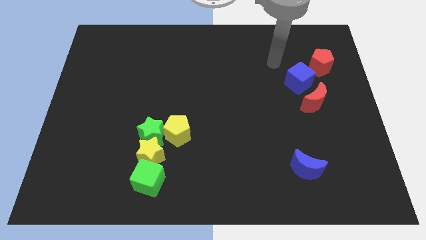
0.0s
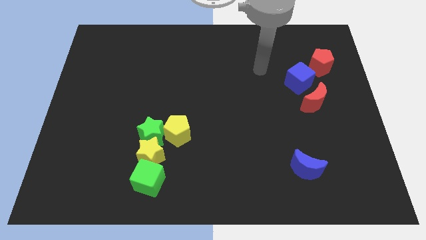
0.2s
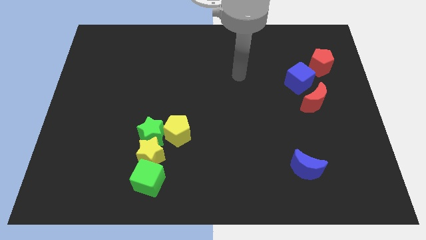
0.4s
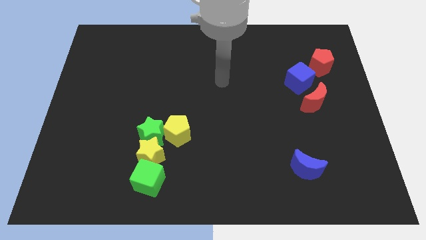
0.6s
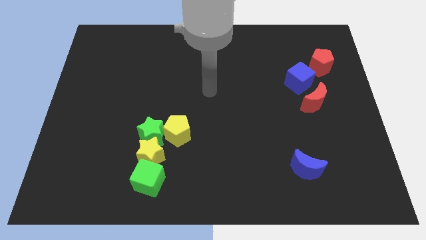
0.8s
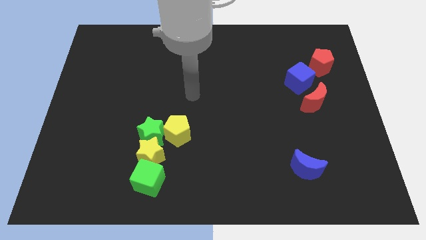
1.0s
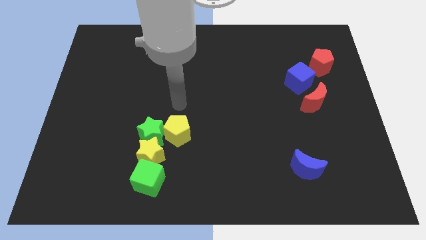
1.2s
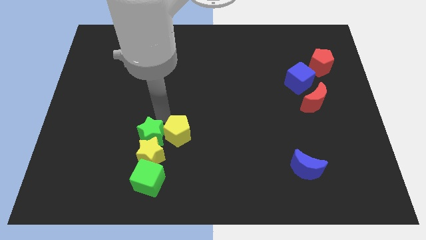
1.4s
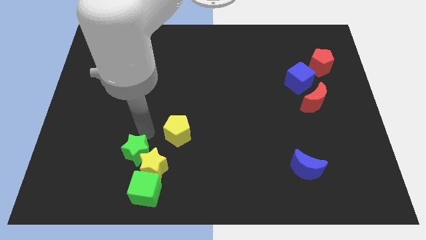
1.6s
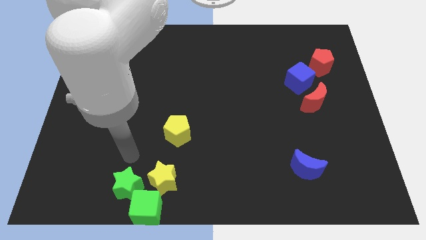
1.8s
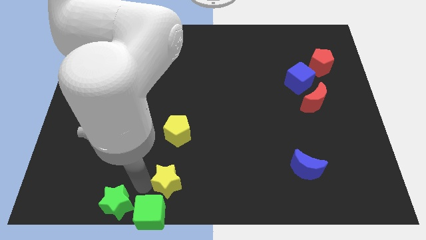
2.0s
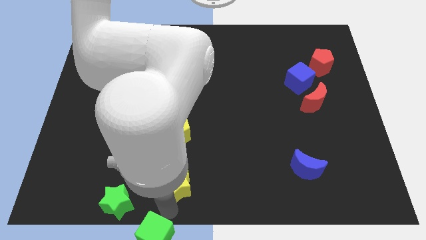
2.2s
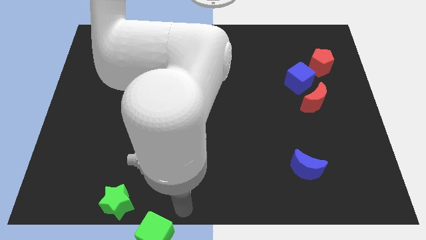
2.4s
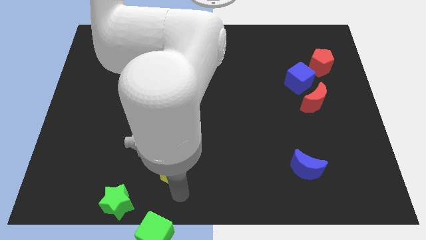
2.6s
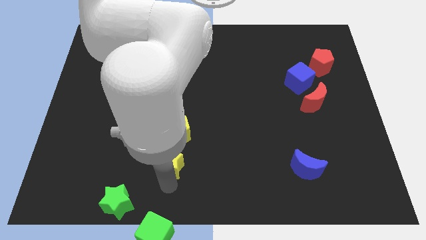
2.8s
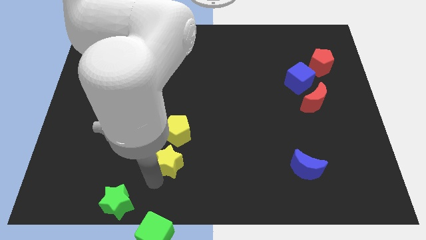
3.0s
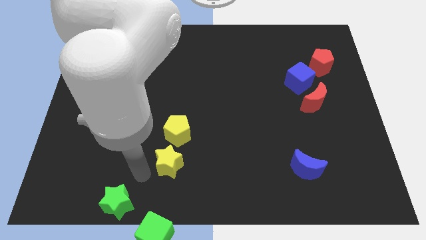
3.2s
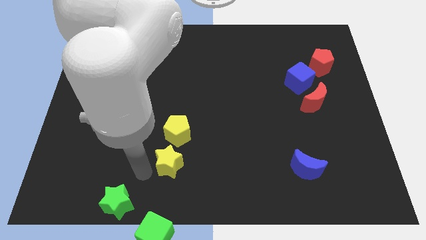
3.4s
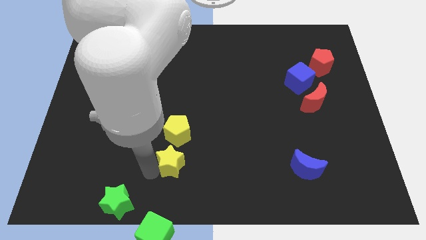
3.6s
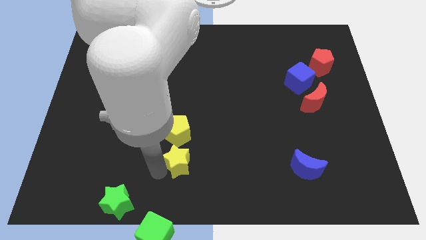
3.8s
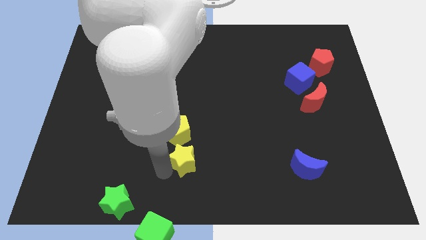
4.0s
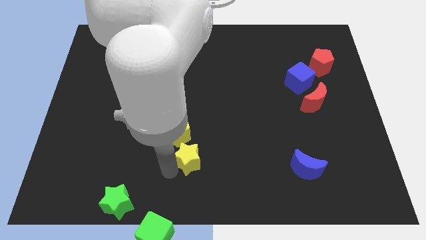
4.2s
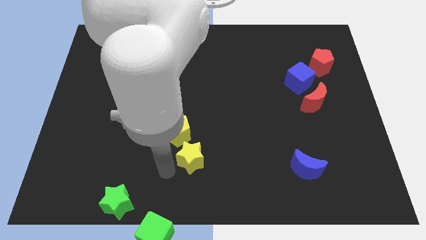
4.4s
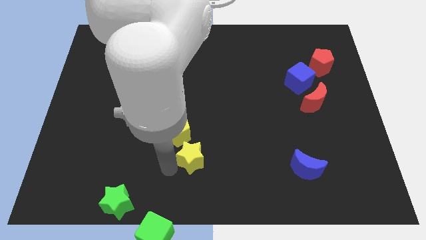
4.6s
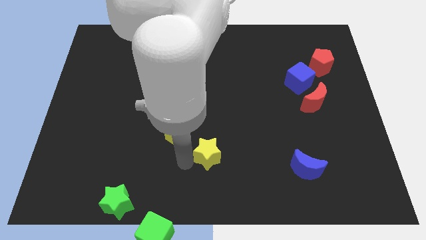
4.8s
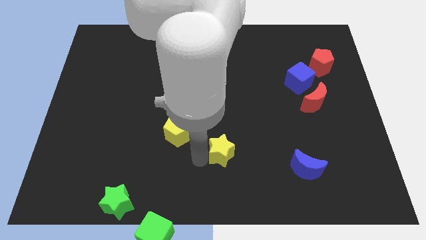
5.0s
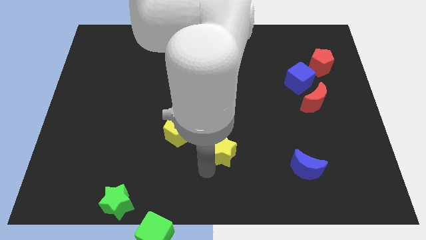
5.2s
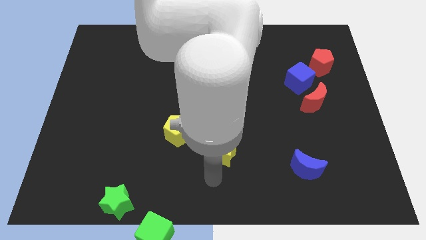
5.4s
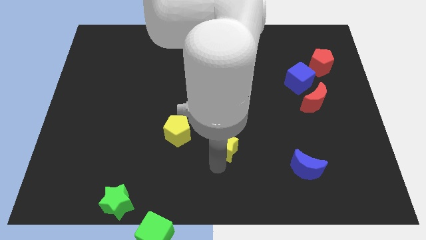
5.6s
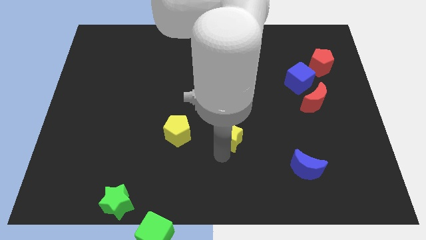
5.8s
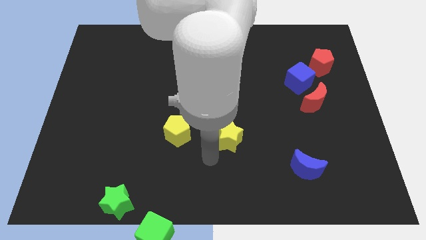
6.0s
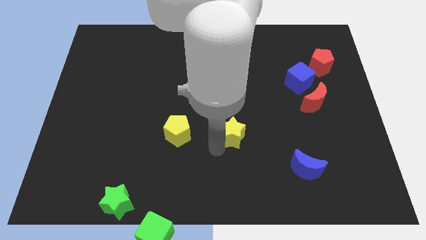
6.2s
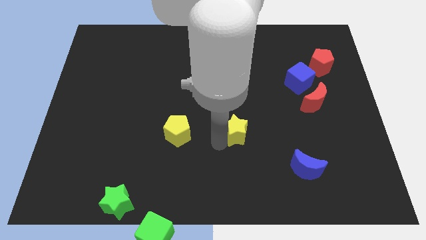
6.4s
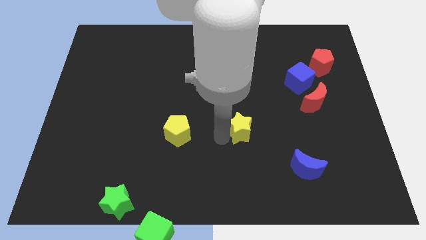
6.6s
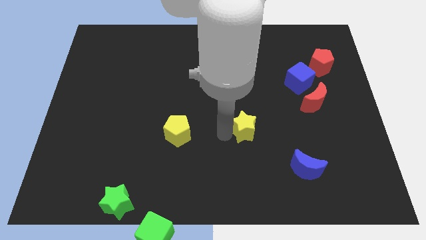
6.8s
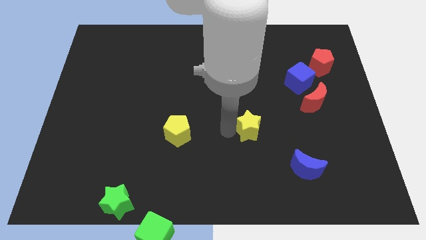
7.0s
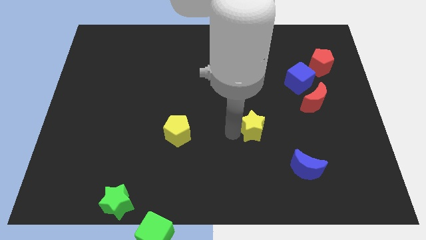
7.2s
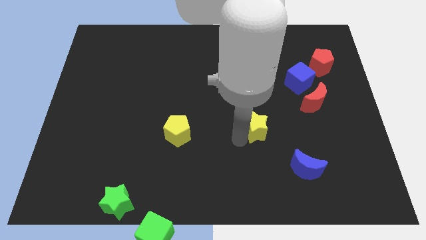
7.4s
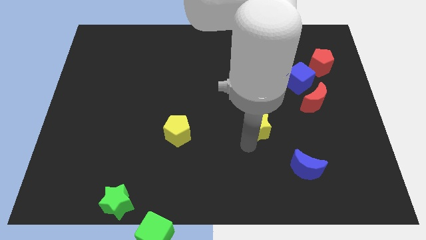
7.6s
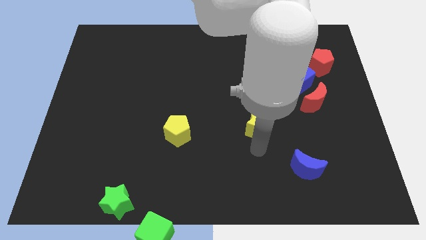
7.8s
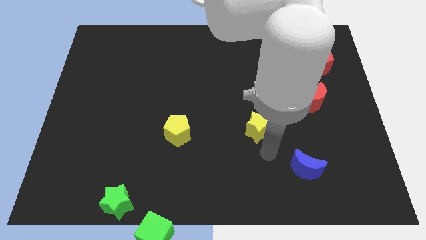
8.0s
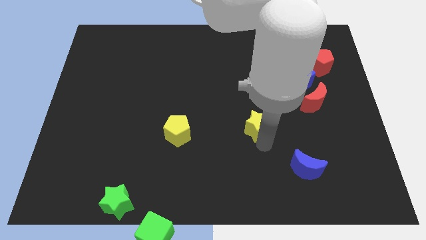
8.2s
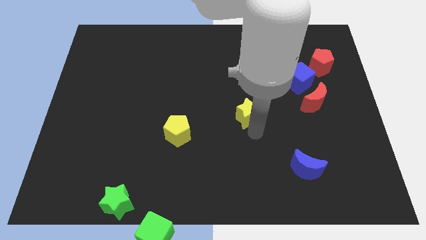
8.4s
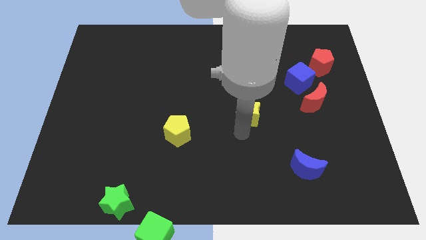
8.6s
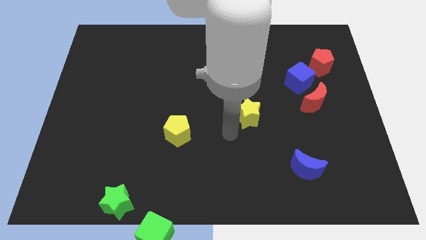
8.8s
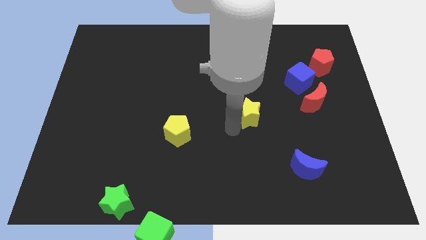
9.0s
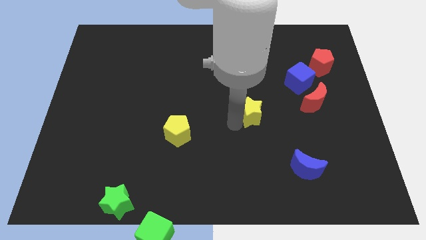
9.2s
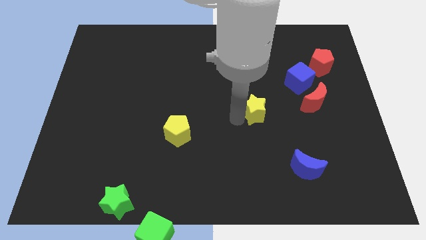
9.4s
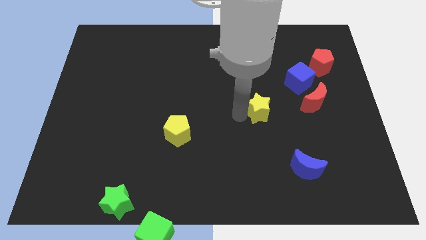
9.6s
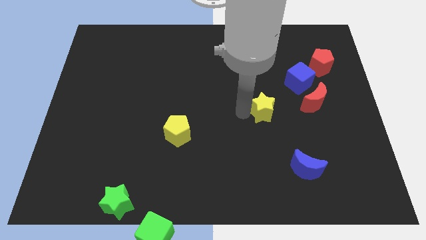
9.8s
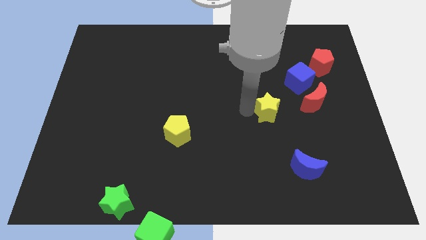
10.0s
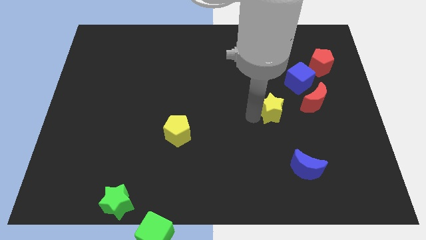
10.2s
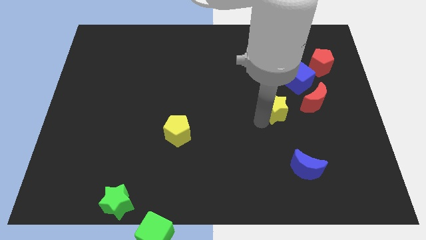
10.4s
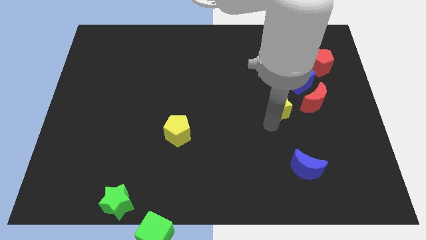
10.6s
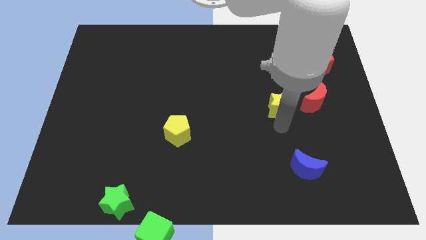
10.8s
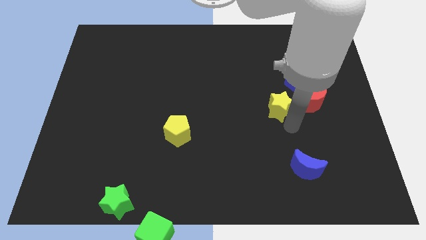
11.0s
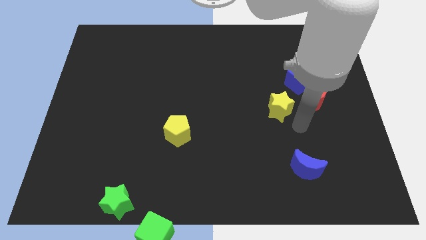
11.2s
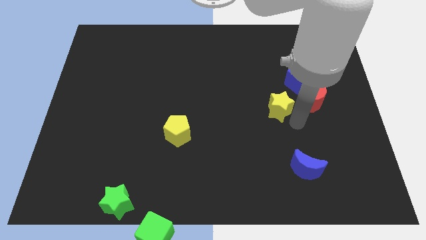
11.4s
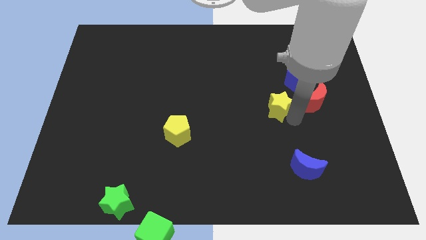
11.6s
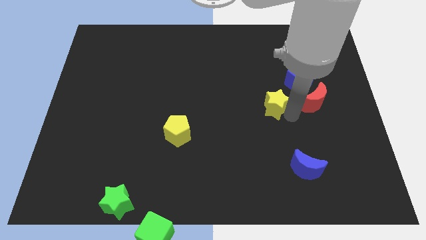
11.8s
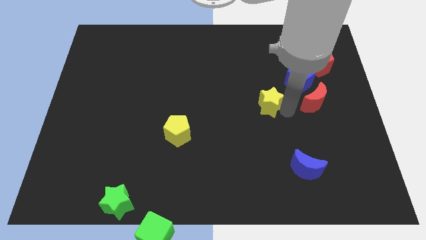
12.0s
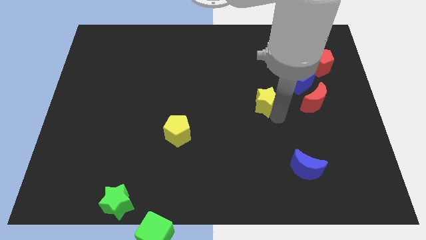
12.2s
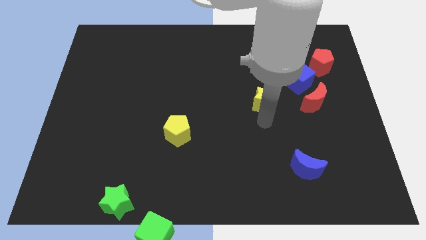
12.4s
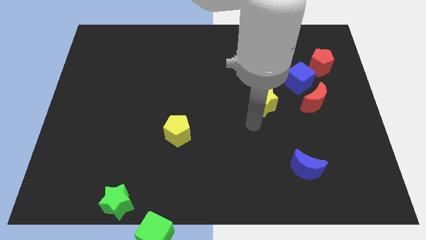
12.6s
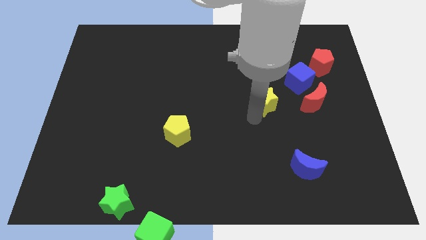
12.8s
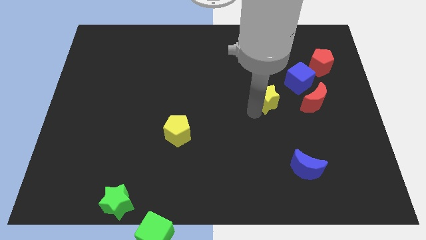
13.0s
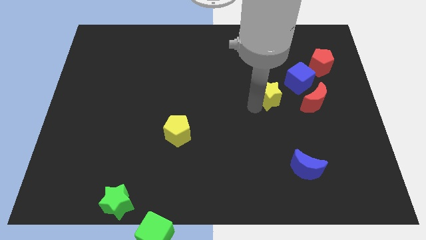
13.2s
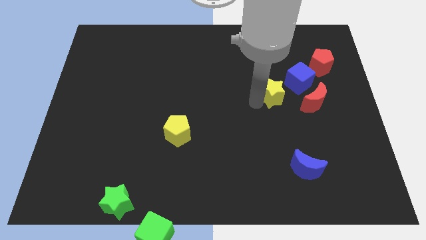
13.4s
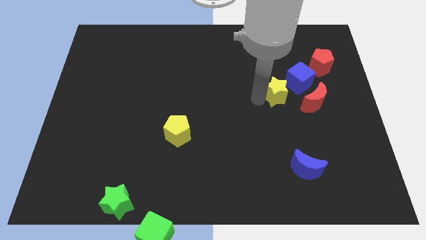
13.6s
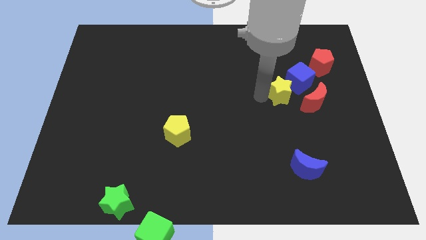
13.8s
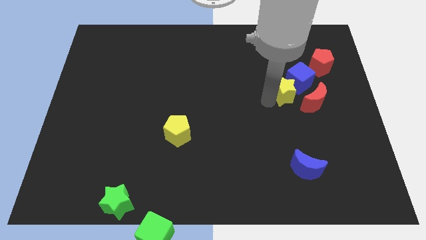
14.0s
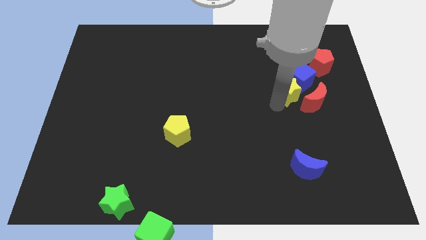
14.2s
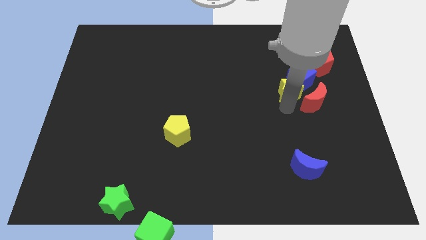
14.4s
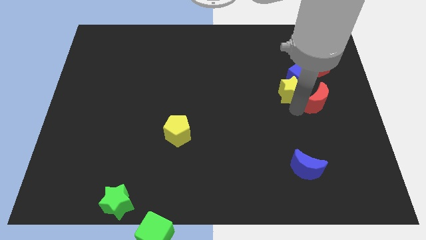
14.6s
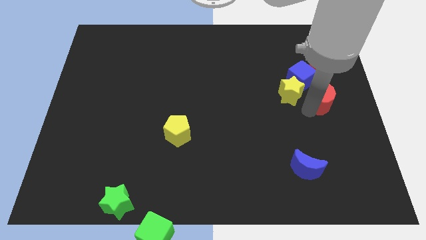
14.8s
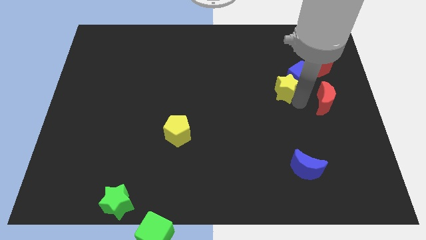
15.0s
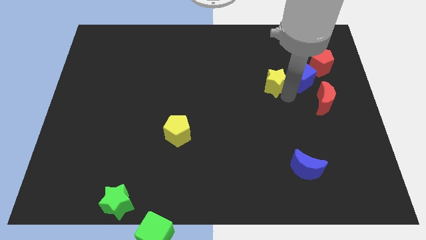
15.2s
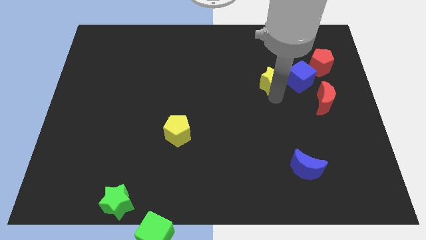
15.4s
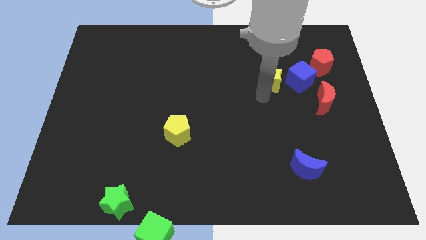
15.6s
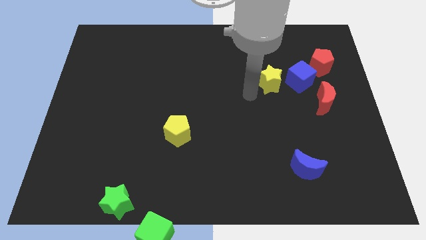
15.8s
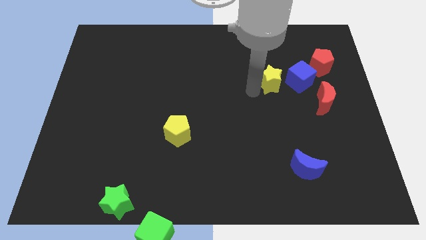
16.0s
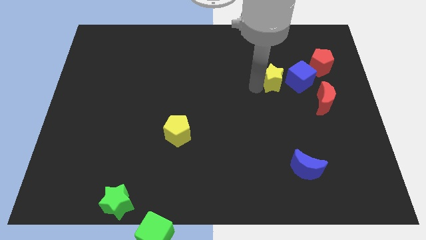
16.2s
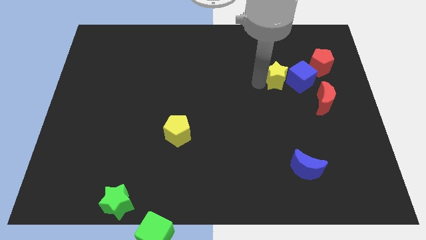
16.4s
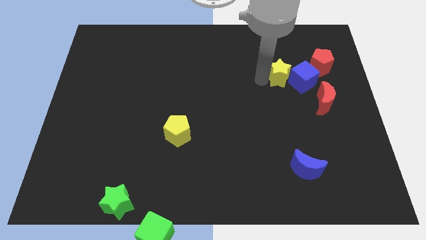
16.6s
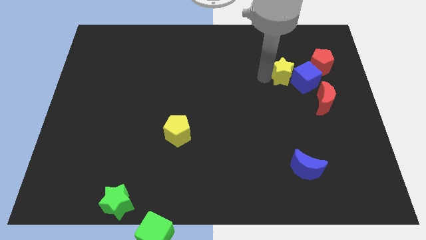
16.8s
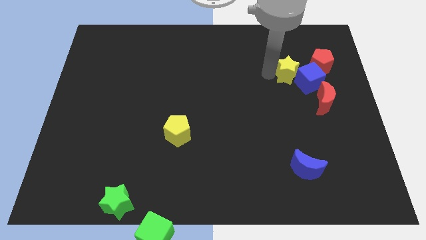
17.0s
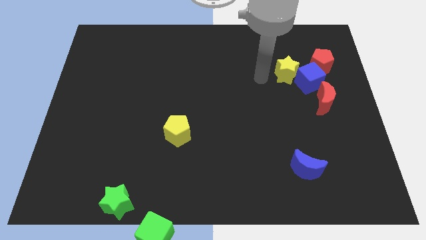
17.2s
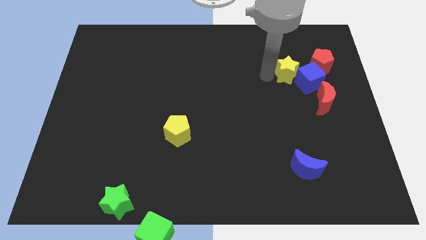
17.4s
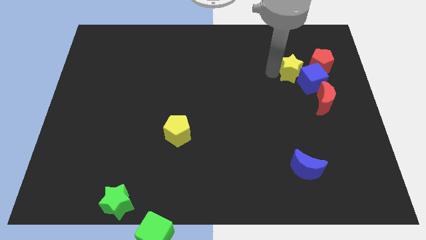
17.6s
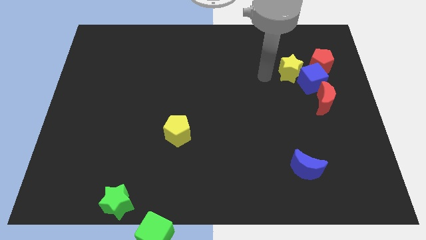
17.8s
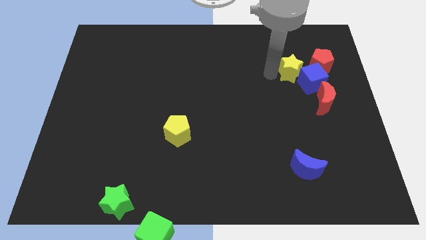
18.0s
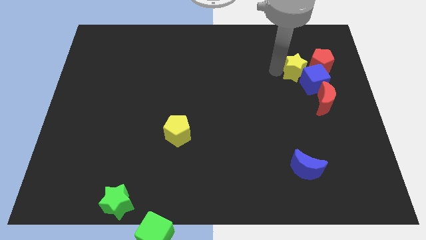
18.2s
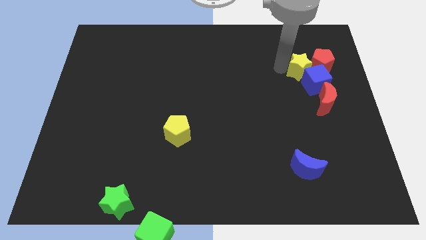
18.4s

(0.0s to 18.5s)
slide the yellow star to the red pentagon
